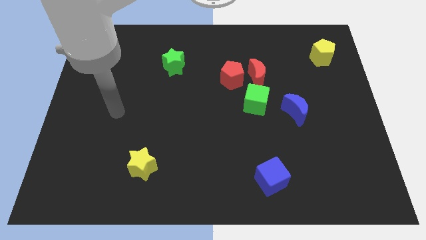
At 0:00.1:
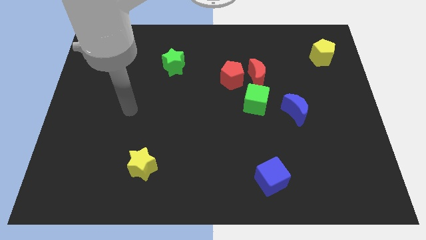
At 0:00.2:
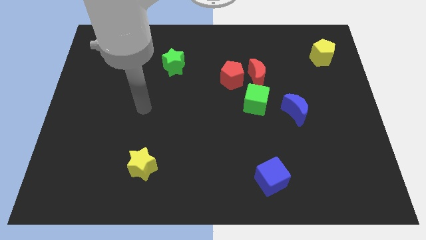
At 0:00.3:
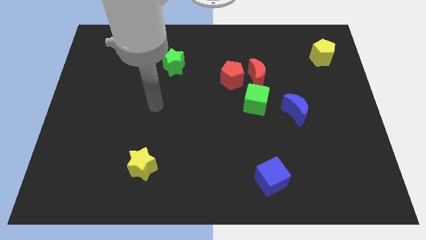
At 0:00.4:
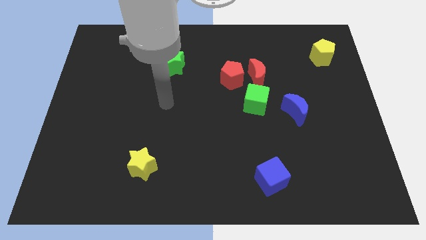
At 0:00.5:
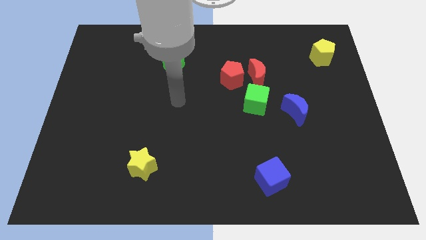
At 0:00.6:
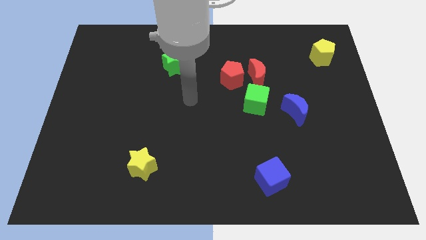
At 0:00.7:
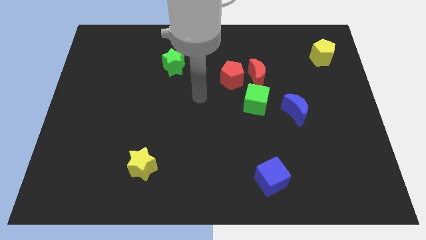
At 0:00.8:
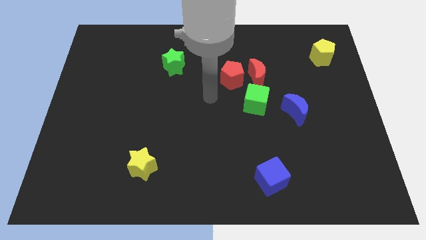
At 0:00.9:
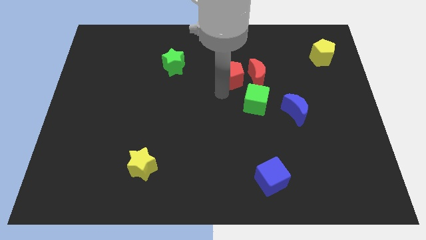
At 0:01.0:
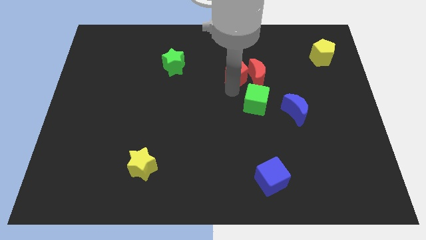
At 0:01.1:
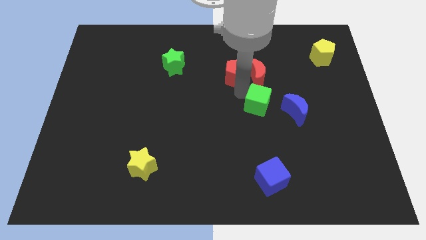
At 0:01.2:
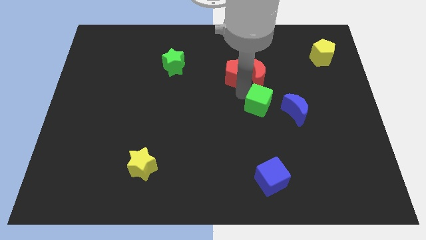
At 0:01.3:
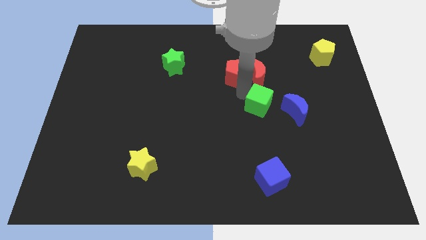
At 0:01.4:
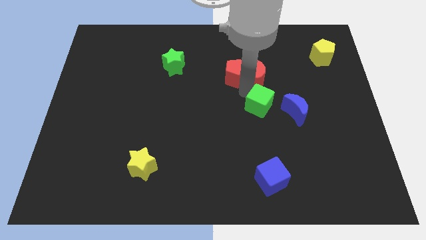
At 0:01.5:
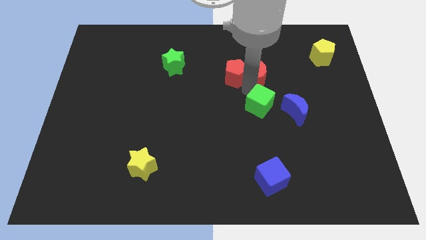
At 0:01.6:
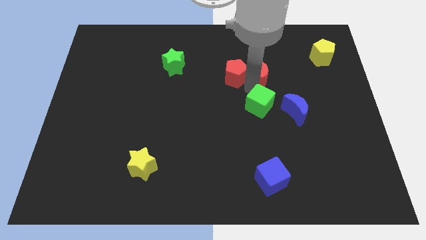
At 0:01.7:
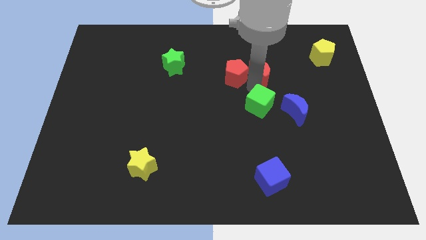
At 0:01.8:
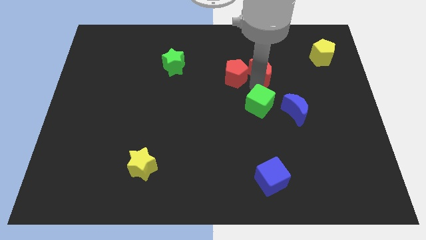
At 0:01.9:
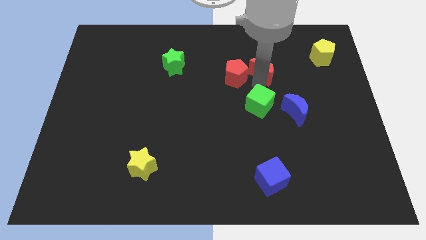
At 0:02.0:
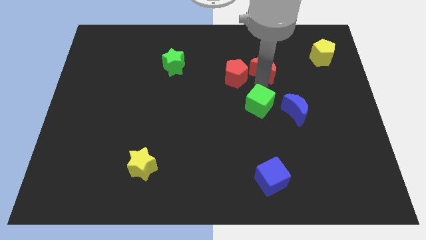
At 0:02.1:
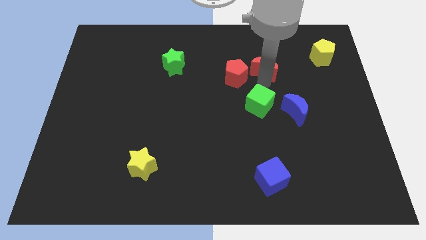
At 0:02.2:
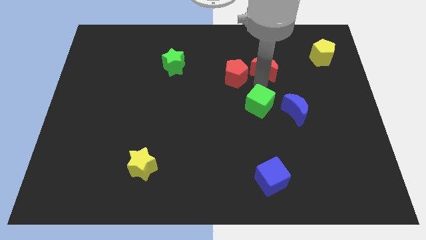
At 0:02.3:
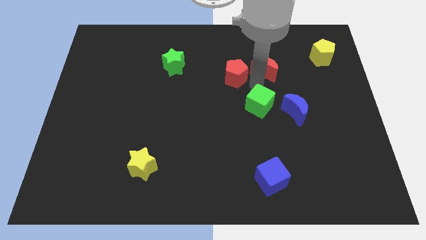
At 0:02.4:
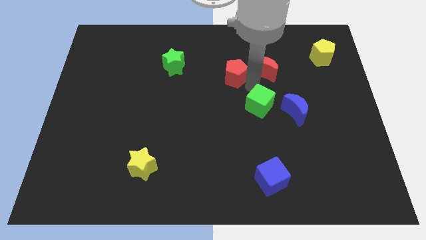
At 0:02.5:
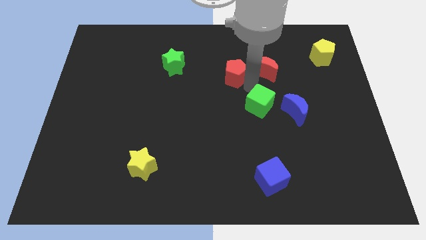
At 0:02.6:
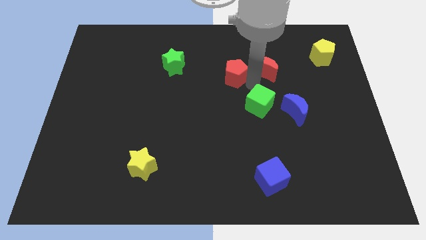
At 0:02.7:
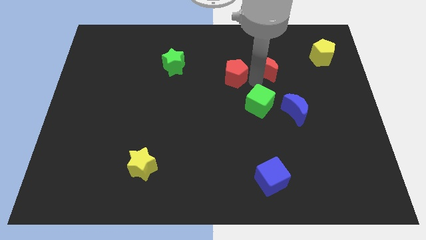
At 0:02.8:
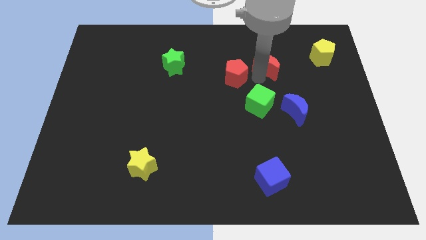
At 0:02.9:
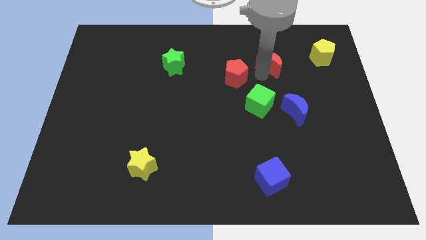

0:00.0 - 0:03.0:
pull the red moon apart from the red pentagon and green cube

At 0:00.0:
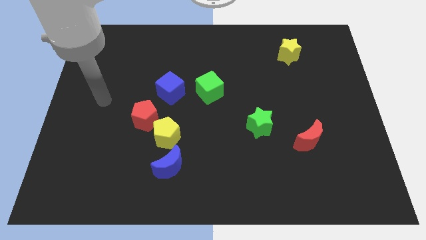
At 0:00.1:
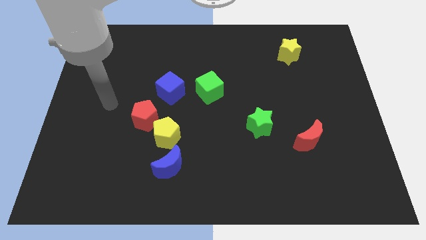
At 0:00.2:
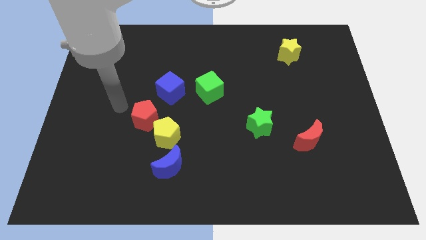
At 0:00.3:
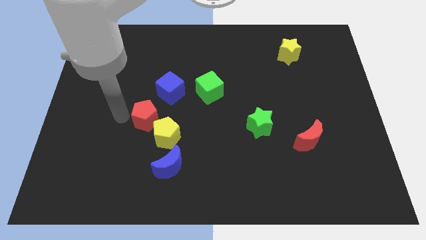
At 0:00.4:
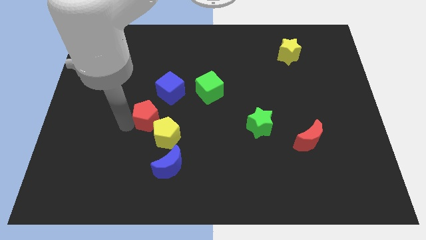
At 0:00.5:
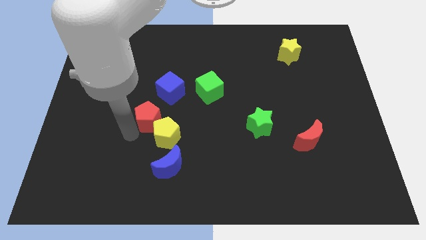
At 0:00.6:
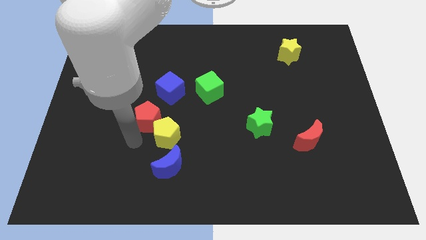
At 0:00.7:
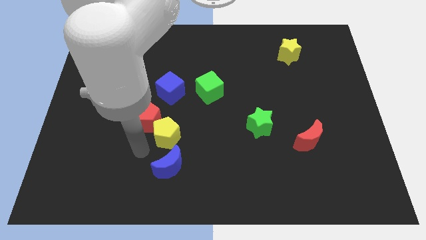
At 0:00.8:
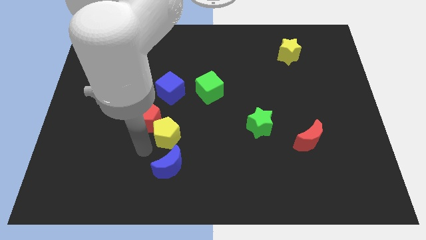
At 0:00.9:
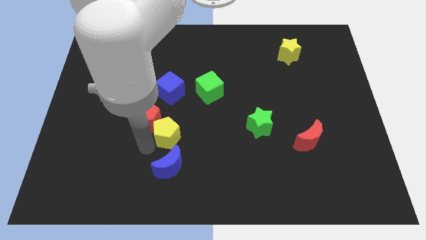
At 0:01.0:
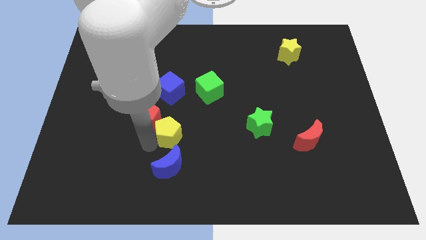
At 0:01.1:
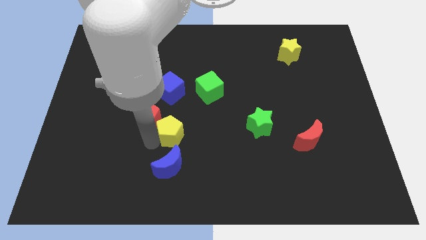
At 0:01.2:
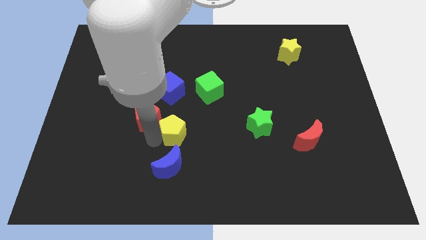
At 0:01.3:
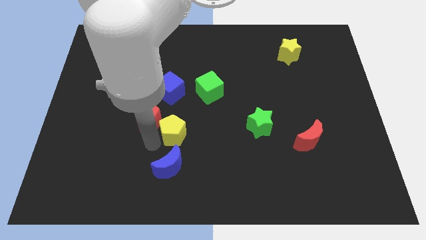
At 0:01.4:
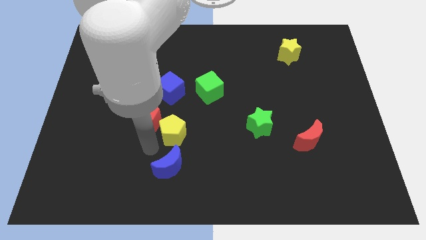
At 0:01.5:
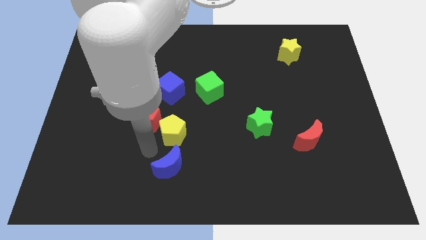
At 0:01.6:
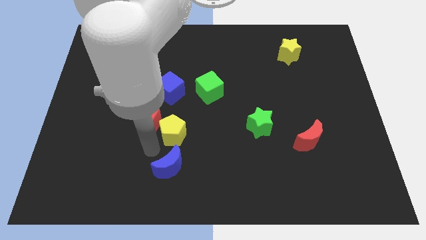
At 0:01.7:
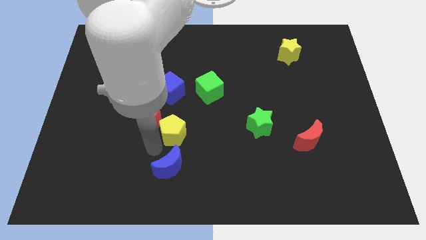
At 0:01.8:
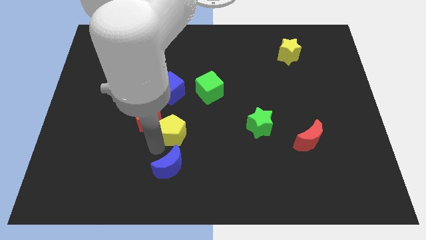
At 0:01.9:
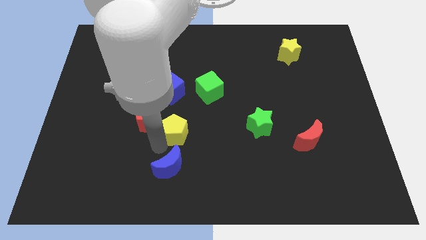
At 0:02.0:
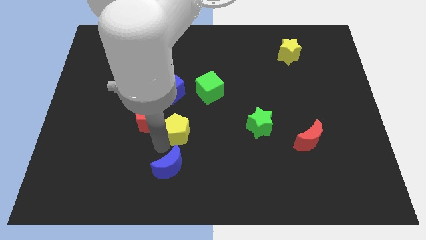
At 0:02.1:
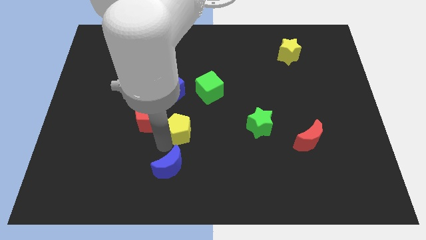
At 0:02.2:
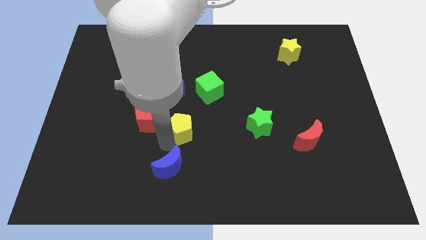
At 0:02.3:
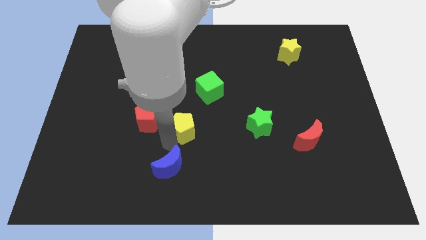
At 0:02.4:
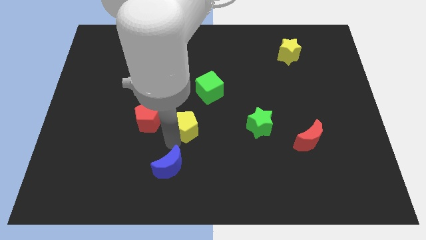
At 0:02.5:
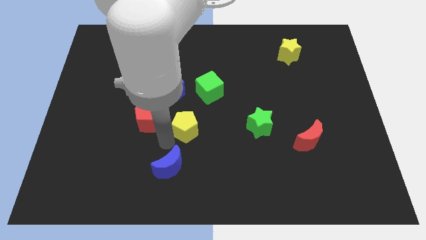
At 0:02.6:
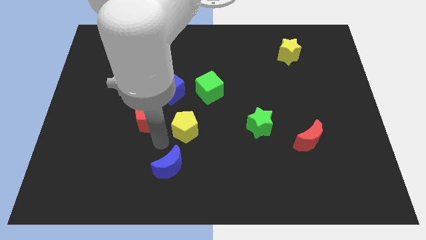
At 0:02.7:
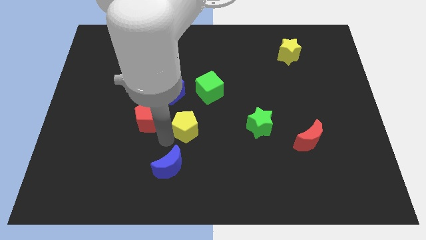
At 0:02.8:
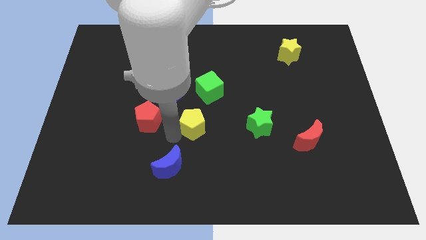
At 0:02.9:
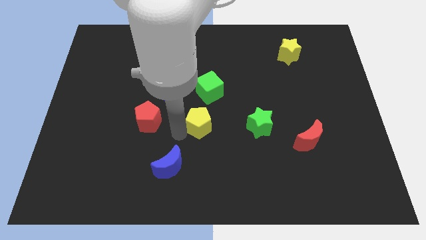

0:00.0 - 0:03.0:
pull the yellow pentagon apart from the red pentagon and blue moon

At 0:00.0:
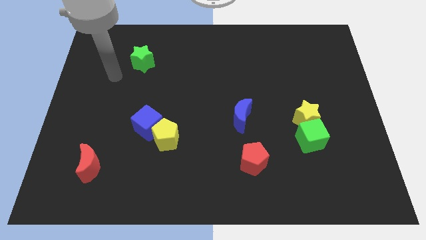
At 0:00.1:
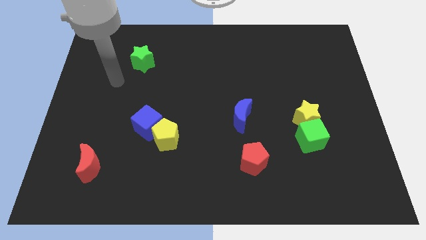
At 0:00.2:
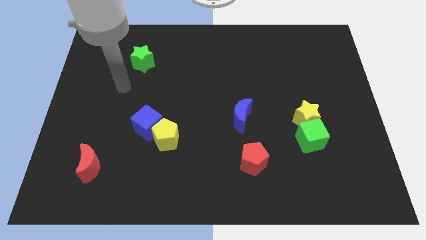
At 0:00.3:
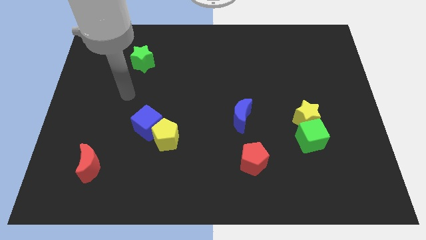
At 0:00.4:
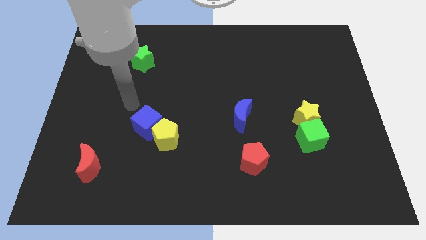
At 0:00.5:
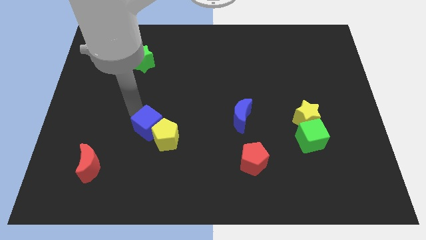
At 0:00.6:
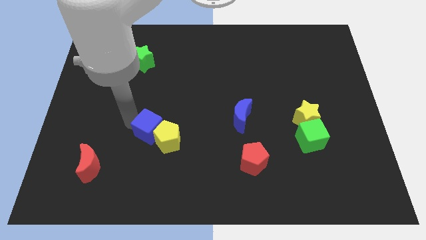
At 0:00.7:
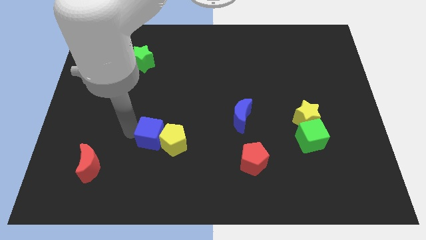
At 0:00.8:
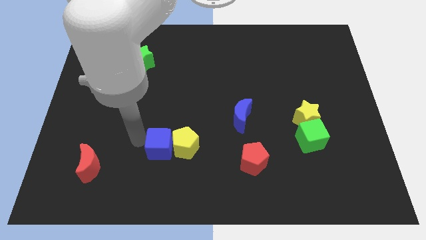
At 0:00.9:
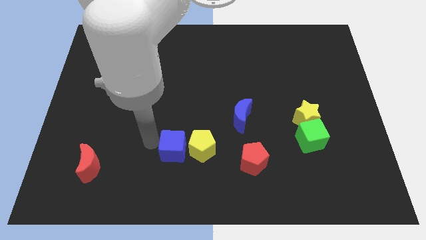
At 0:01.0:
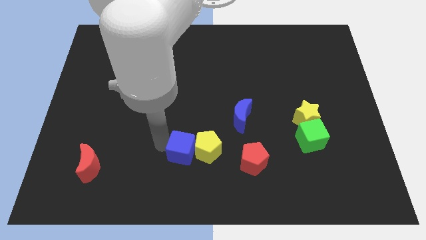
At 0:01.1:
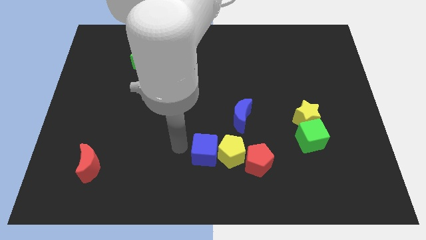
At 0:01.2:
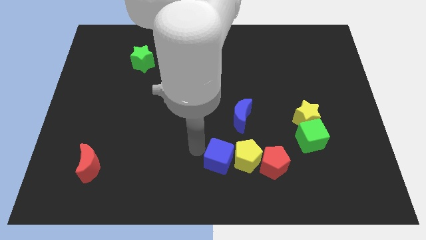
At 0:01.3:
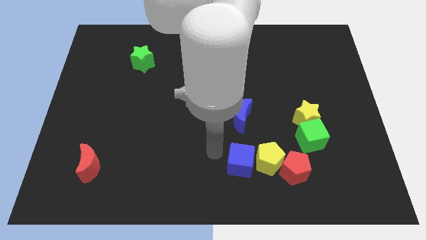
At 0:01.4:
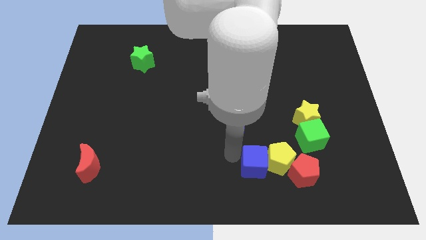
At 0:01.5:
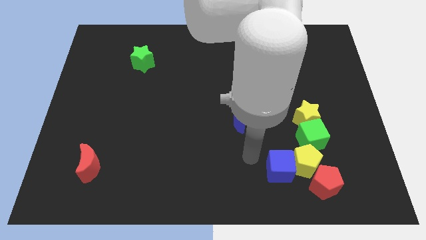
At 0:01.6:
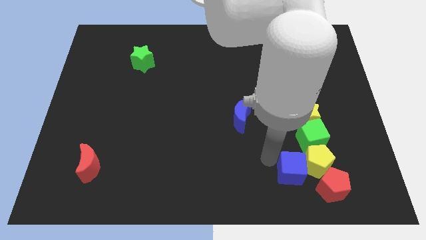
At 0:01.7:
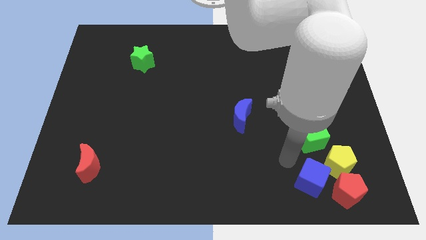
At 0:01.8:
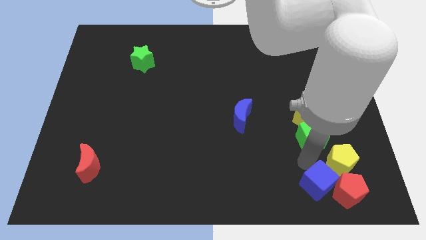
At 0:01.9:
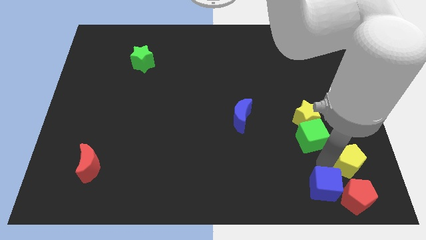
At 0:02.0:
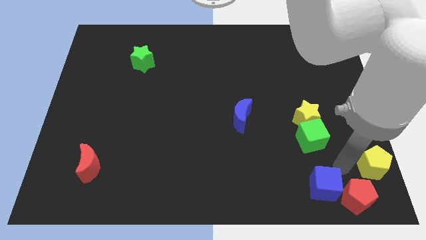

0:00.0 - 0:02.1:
separate the blue cube from the yellow pentagon

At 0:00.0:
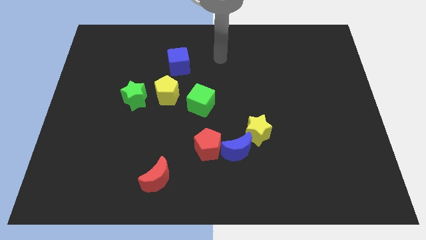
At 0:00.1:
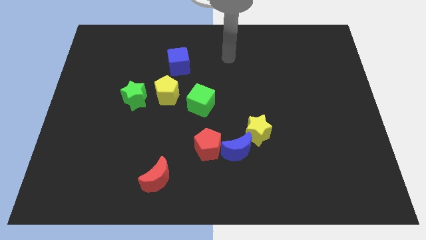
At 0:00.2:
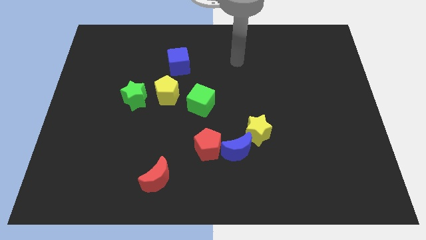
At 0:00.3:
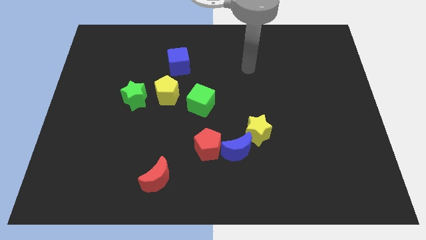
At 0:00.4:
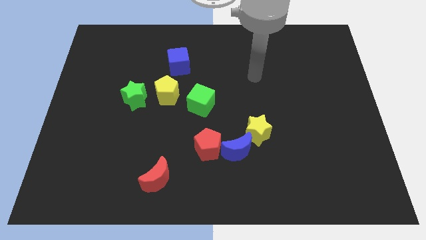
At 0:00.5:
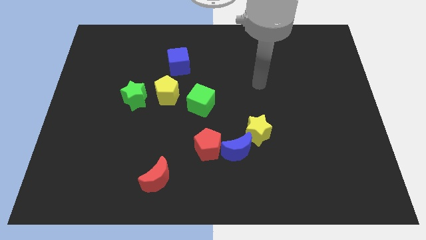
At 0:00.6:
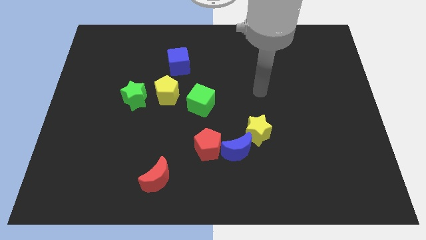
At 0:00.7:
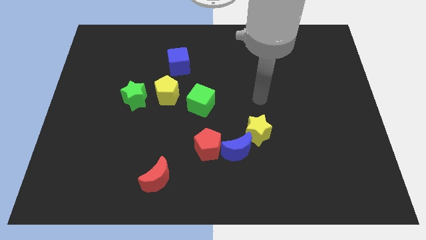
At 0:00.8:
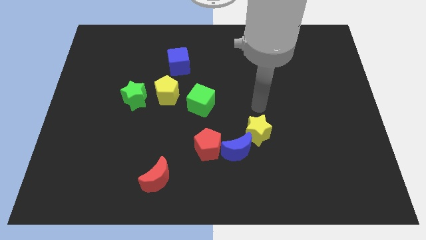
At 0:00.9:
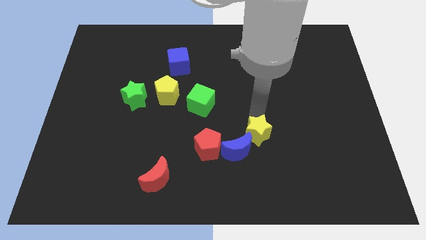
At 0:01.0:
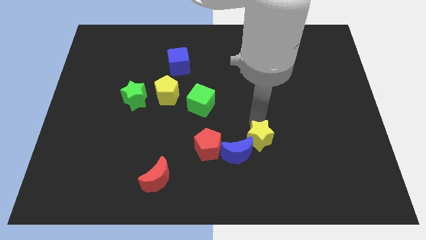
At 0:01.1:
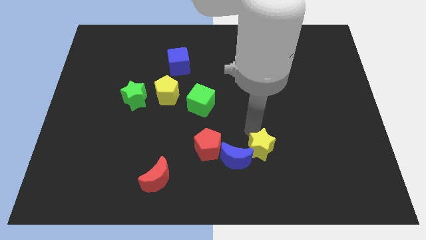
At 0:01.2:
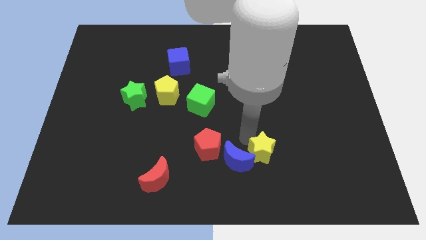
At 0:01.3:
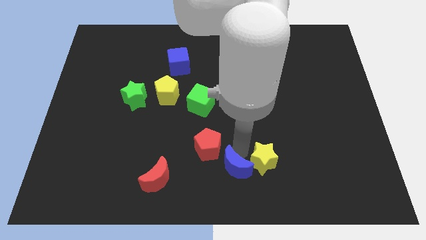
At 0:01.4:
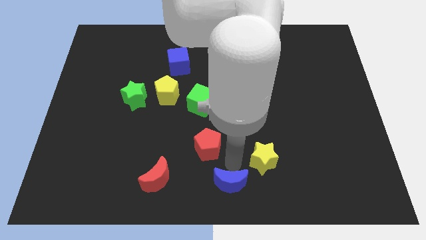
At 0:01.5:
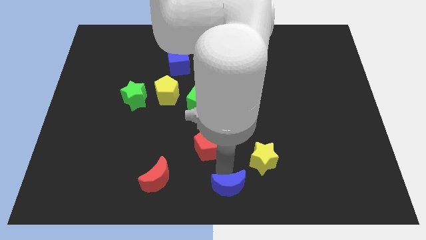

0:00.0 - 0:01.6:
pull the red pentagon apart from the blue moon
